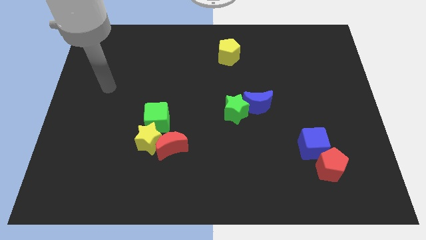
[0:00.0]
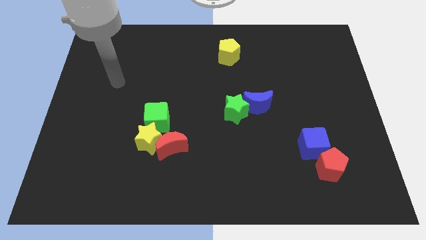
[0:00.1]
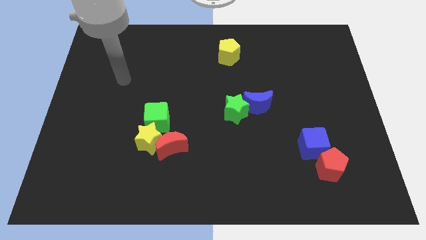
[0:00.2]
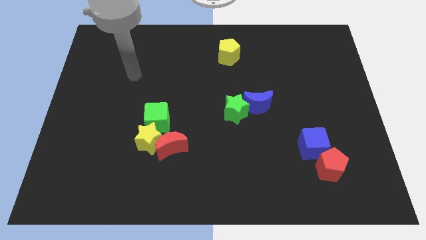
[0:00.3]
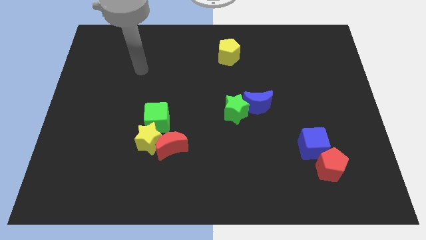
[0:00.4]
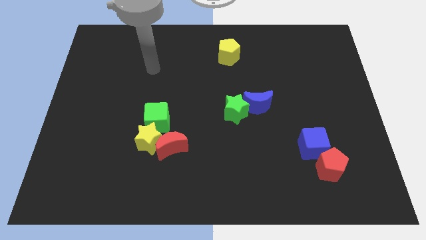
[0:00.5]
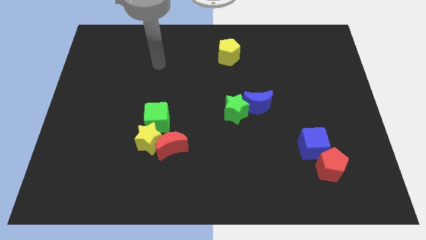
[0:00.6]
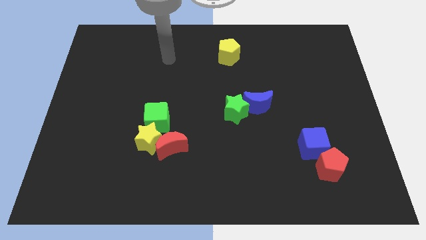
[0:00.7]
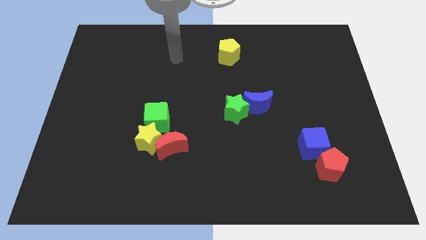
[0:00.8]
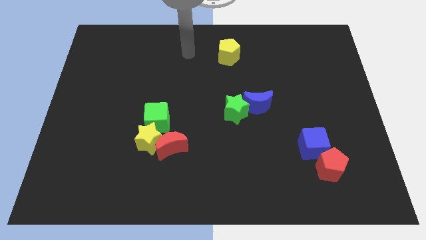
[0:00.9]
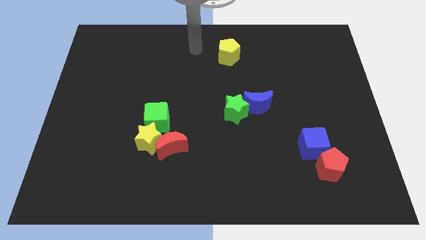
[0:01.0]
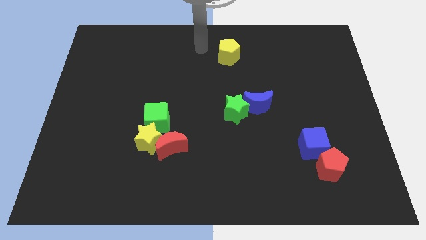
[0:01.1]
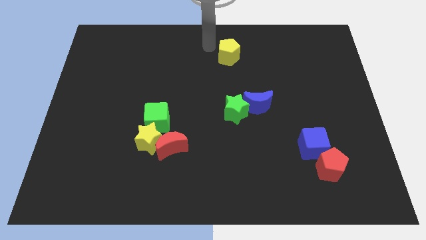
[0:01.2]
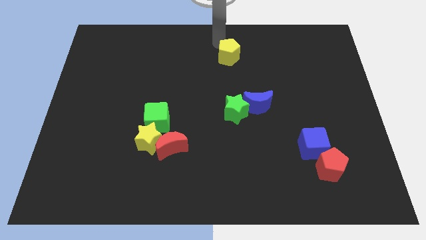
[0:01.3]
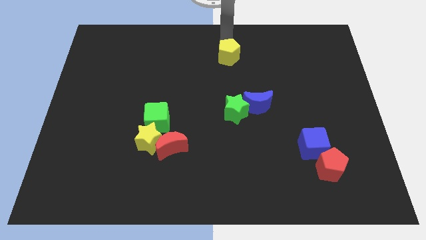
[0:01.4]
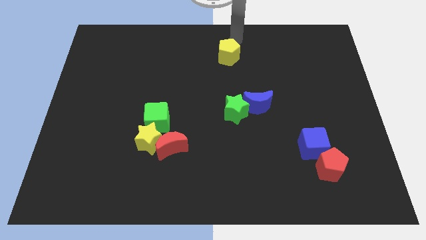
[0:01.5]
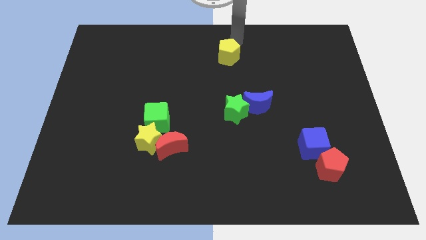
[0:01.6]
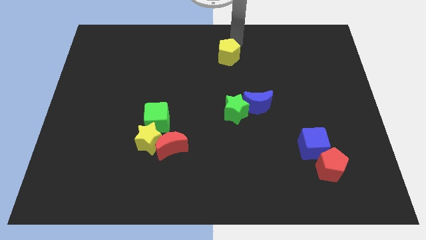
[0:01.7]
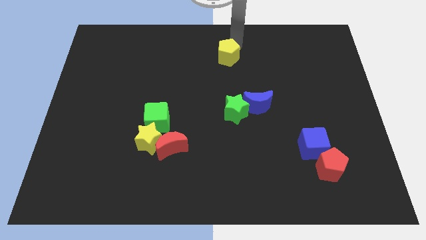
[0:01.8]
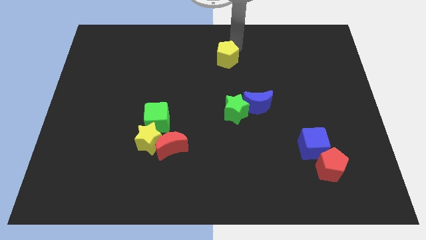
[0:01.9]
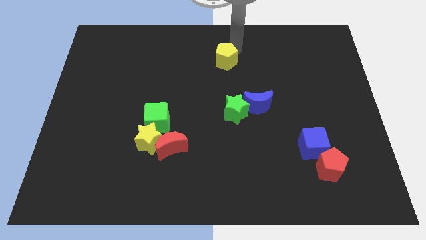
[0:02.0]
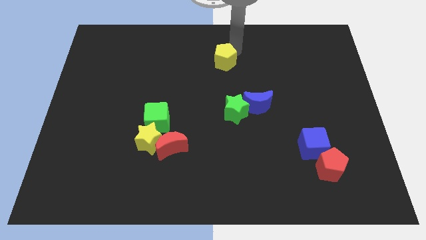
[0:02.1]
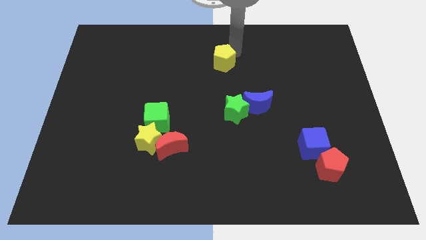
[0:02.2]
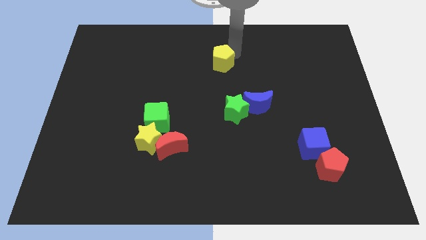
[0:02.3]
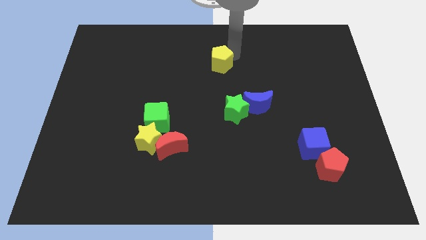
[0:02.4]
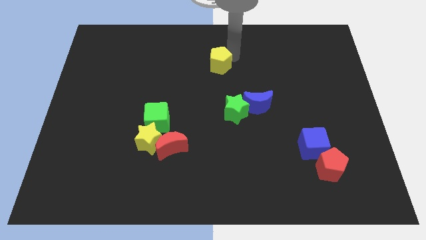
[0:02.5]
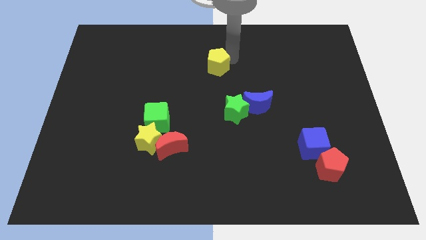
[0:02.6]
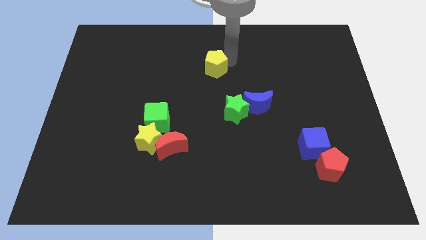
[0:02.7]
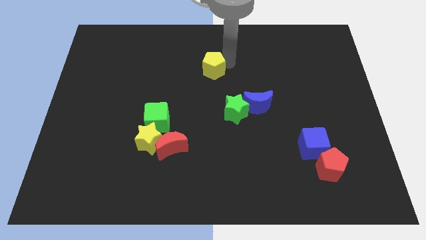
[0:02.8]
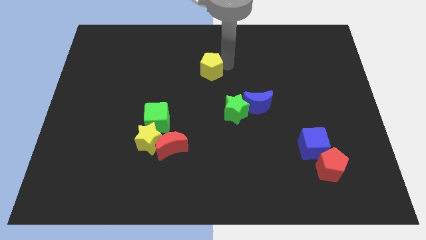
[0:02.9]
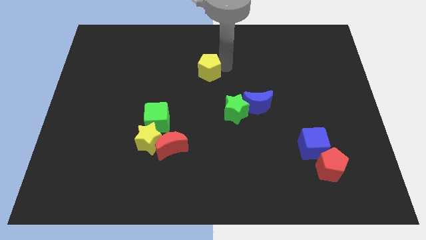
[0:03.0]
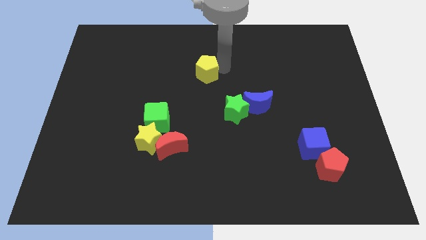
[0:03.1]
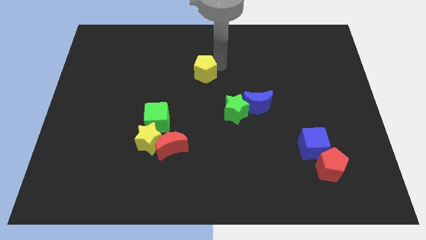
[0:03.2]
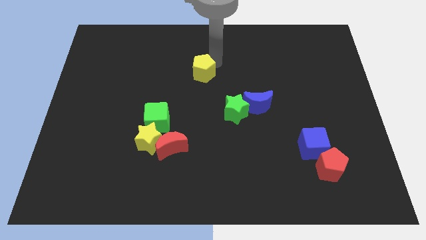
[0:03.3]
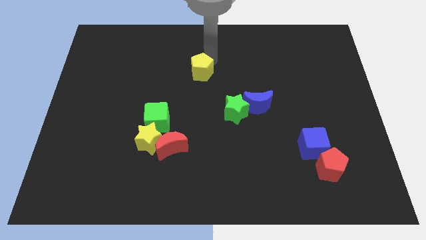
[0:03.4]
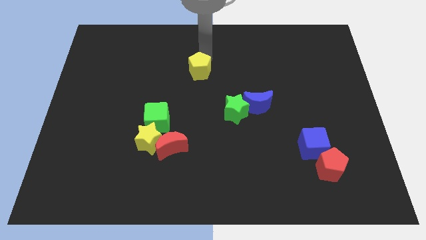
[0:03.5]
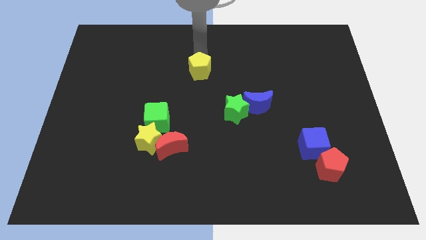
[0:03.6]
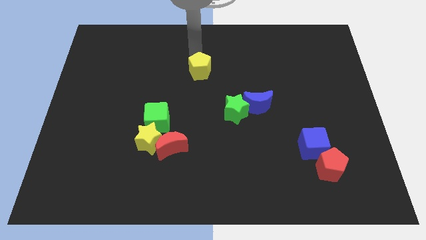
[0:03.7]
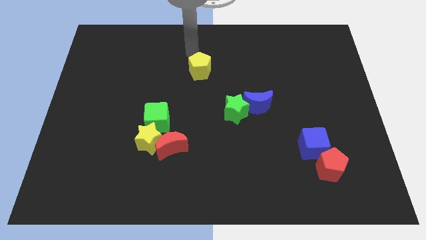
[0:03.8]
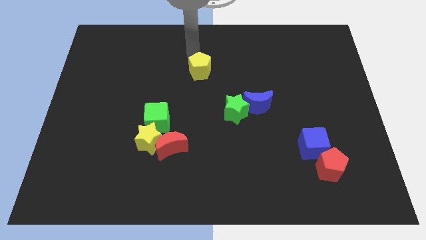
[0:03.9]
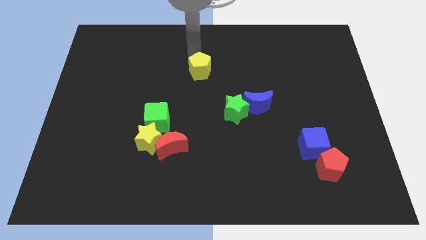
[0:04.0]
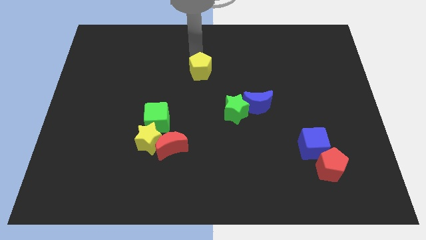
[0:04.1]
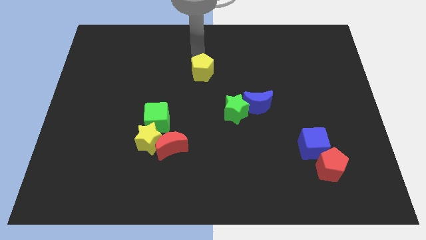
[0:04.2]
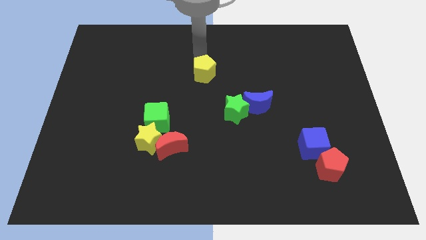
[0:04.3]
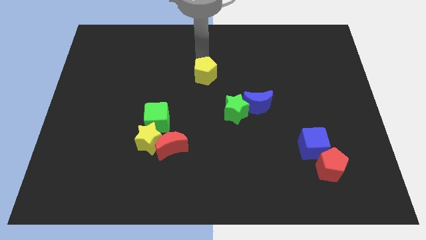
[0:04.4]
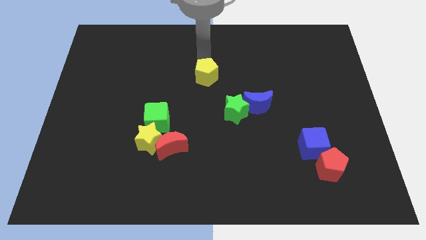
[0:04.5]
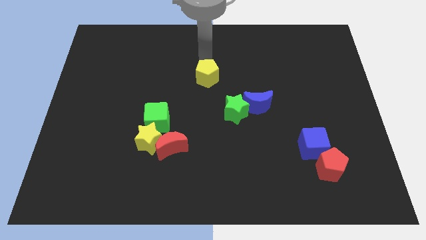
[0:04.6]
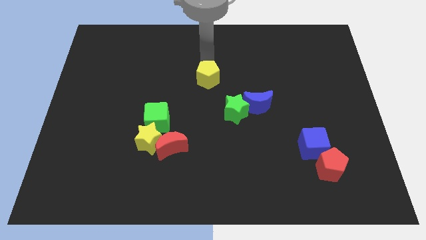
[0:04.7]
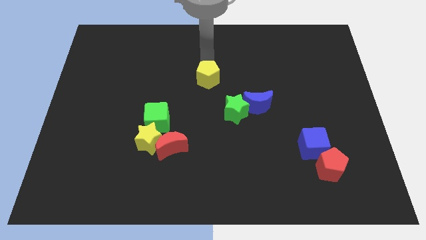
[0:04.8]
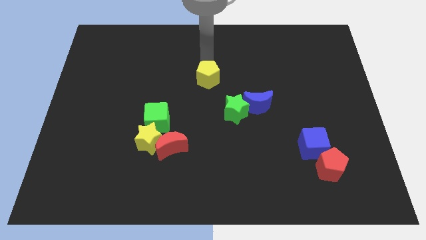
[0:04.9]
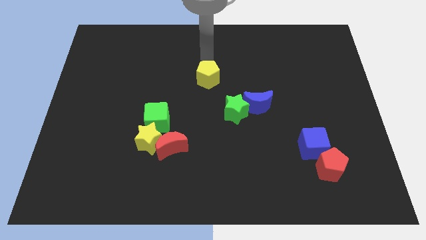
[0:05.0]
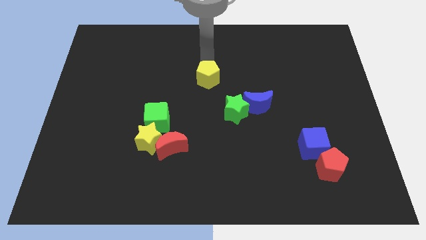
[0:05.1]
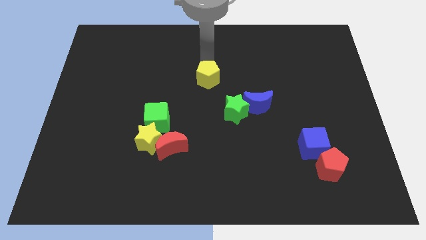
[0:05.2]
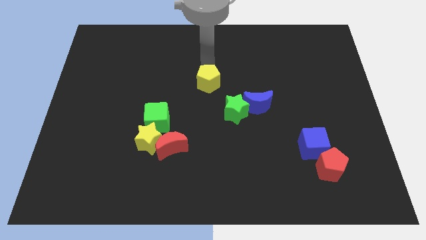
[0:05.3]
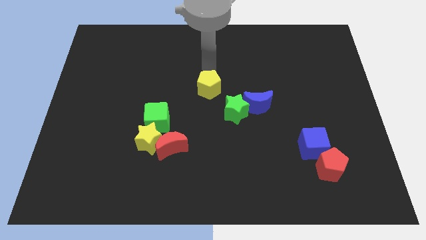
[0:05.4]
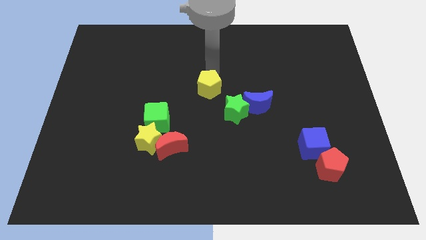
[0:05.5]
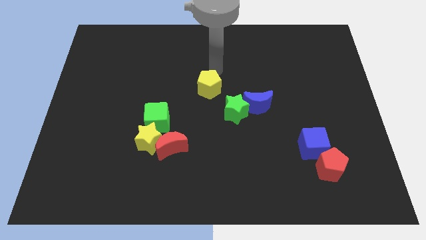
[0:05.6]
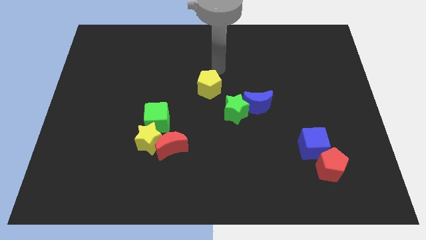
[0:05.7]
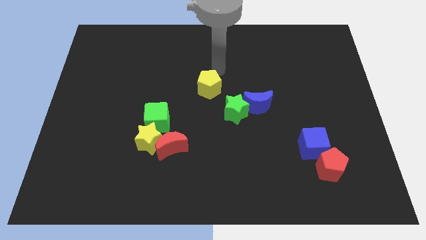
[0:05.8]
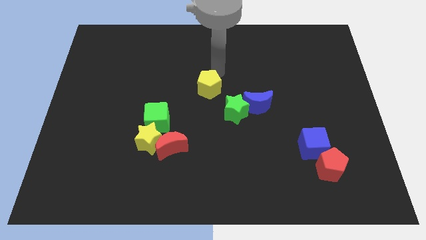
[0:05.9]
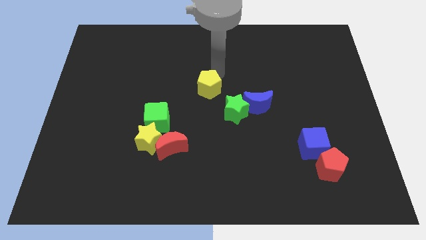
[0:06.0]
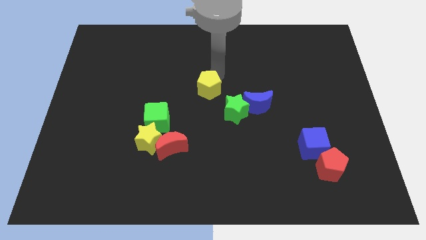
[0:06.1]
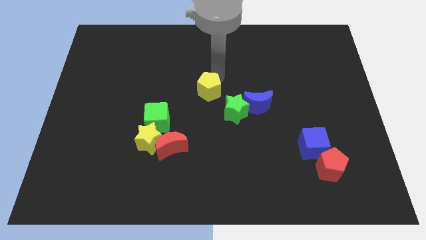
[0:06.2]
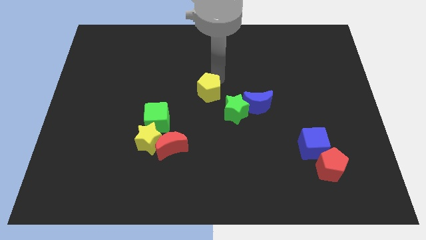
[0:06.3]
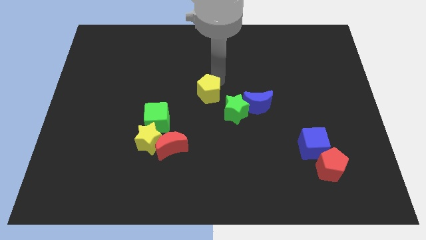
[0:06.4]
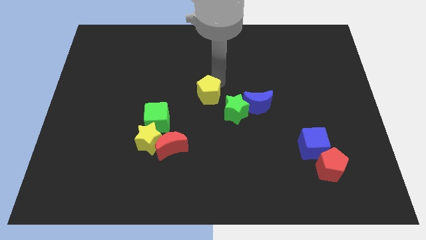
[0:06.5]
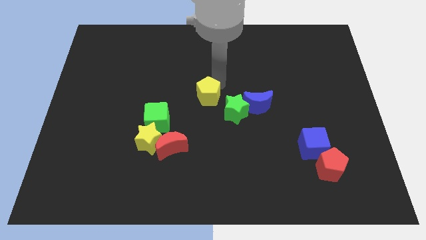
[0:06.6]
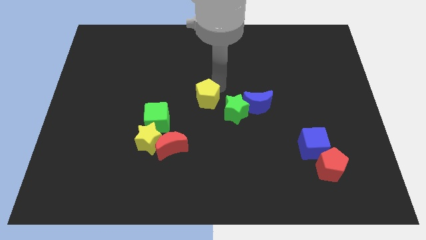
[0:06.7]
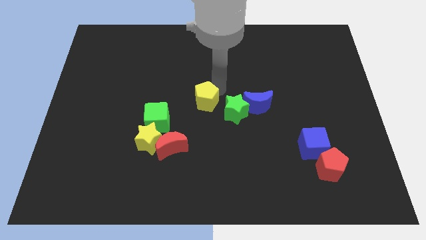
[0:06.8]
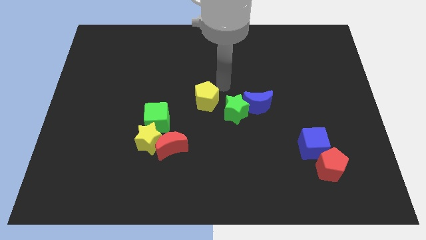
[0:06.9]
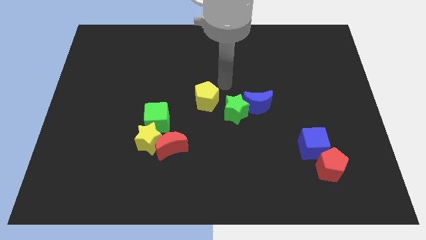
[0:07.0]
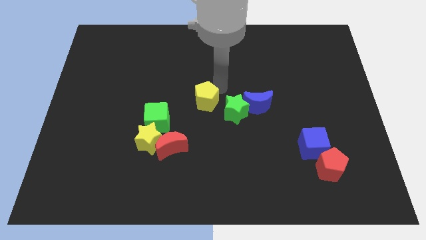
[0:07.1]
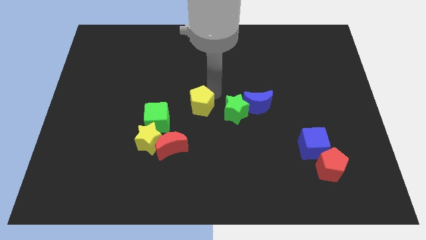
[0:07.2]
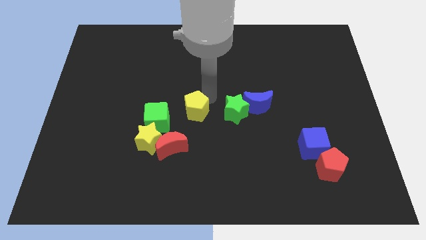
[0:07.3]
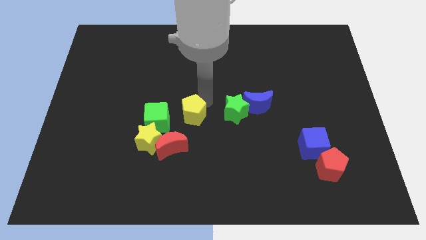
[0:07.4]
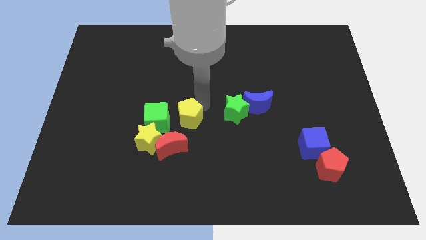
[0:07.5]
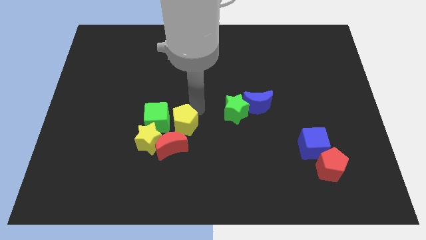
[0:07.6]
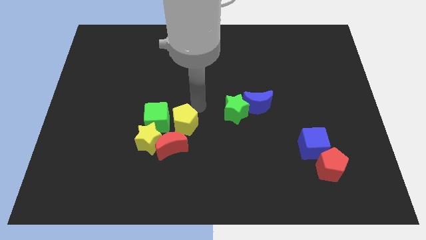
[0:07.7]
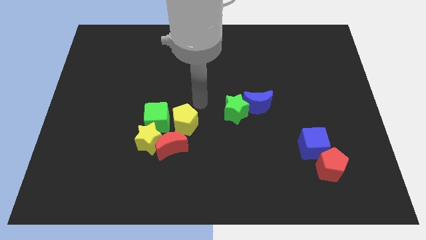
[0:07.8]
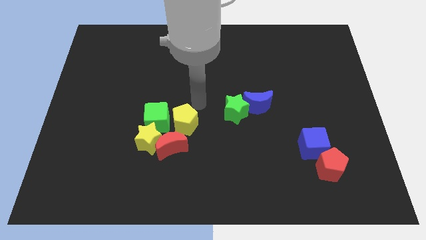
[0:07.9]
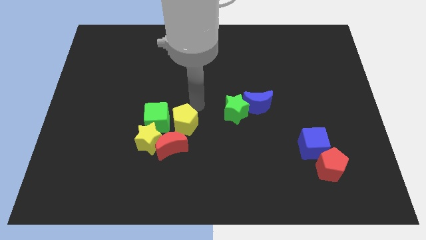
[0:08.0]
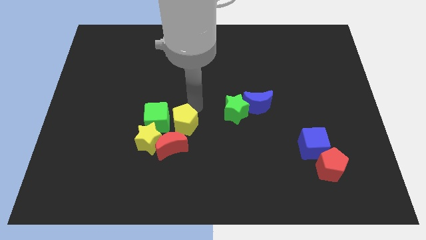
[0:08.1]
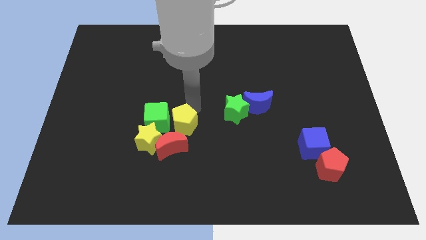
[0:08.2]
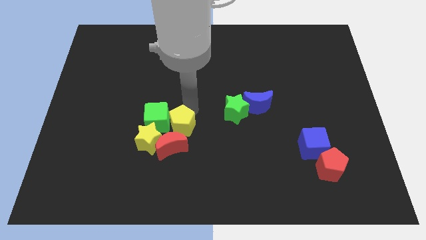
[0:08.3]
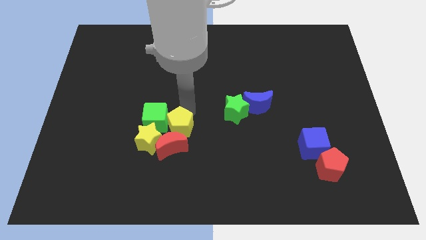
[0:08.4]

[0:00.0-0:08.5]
slide the yellow pentagon next to the red moon
